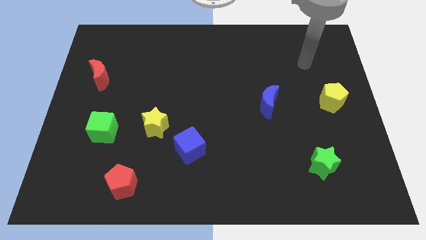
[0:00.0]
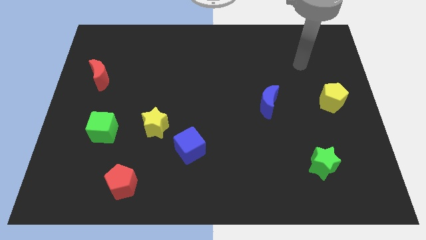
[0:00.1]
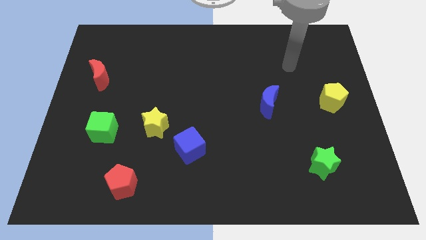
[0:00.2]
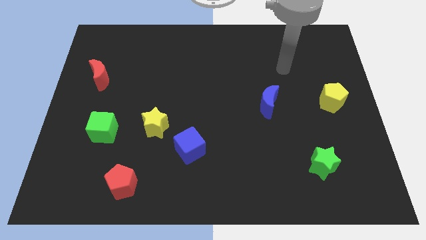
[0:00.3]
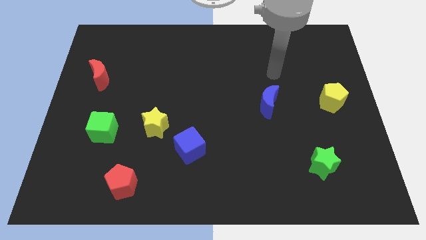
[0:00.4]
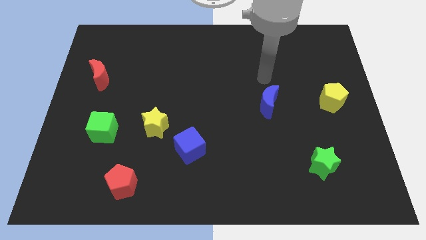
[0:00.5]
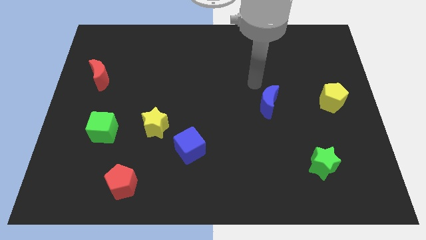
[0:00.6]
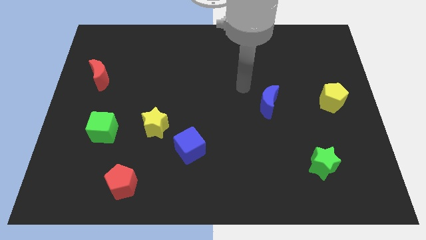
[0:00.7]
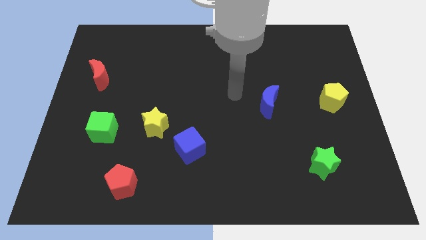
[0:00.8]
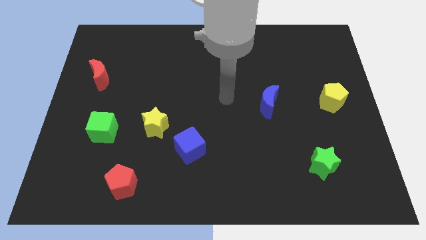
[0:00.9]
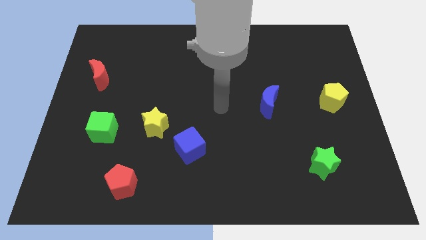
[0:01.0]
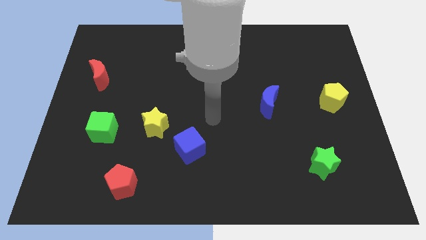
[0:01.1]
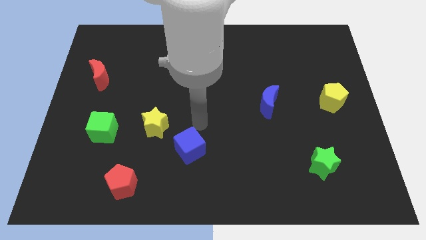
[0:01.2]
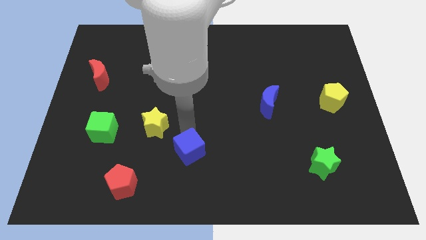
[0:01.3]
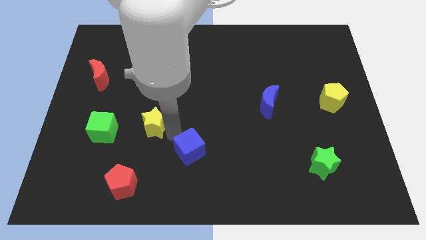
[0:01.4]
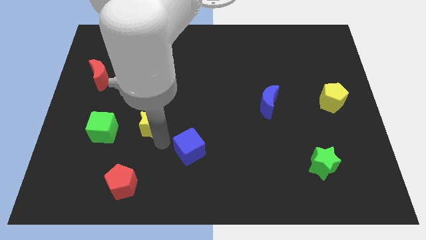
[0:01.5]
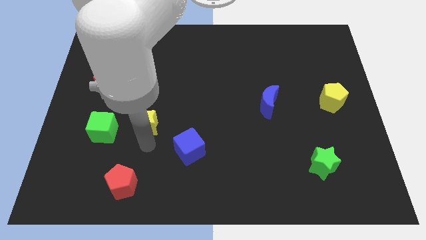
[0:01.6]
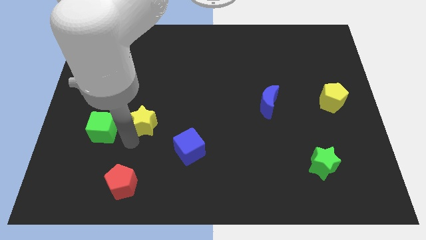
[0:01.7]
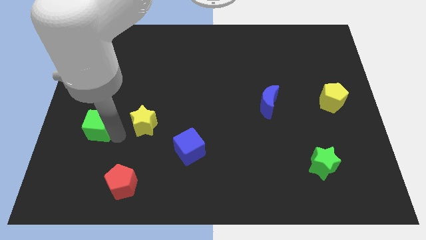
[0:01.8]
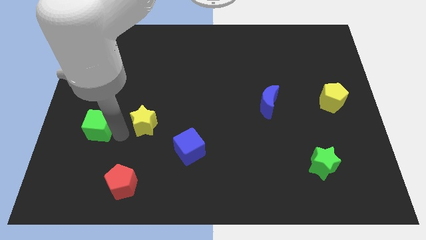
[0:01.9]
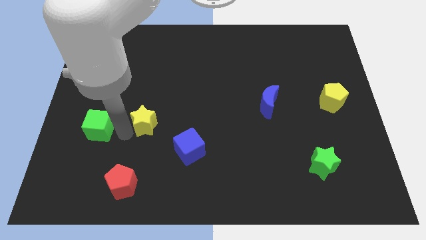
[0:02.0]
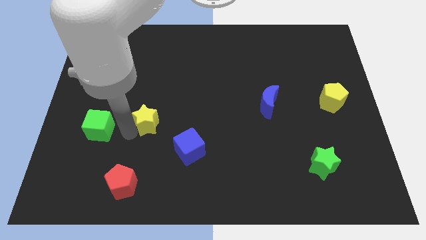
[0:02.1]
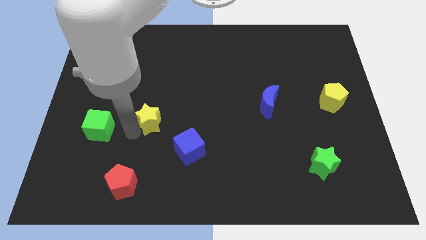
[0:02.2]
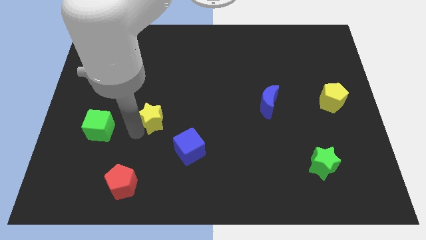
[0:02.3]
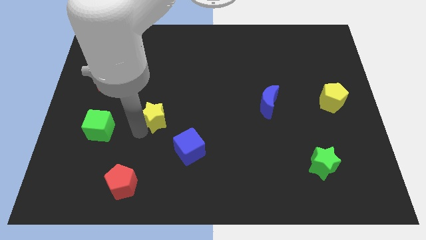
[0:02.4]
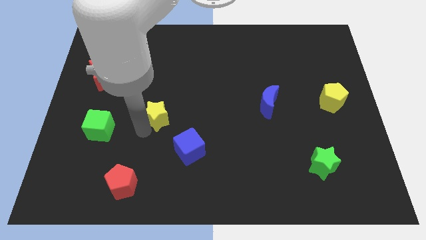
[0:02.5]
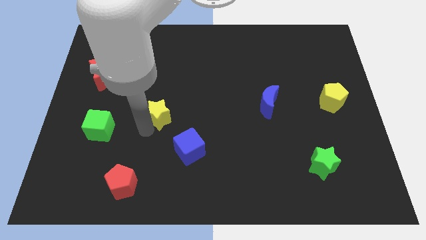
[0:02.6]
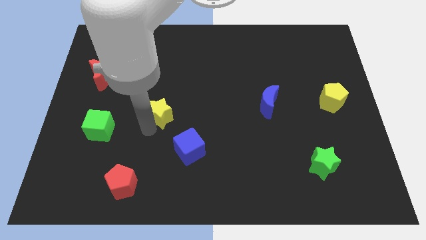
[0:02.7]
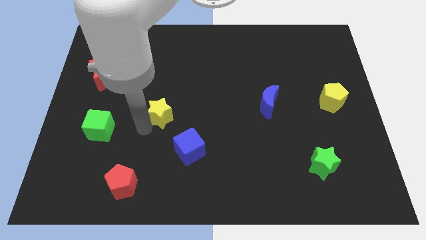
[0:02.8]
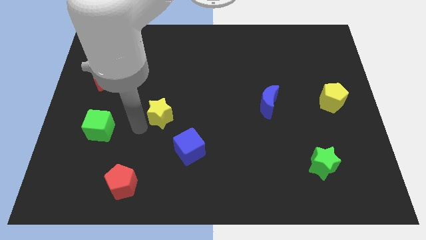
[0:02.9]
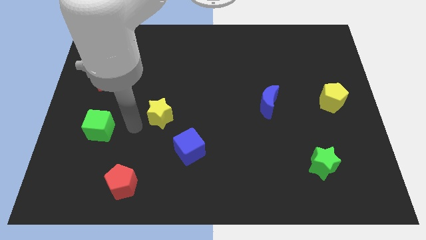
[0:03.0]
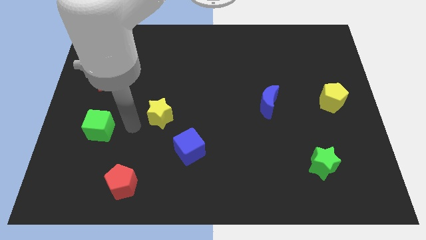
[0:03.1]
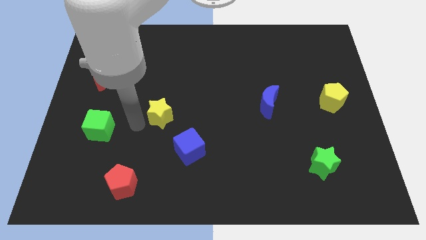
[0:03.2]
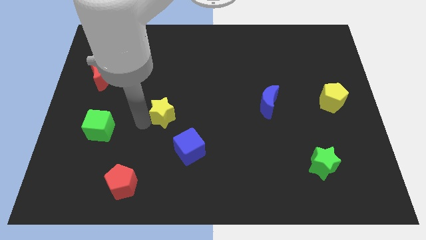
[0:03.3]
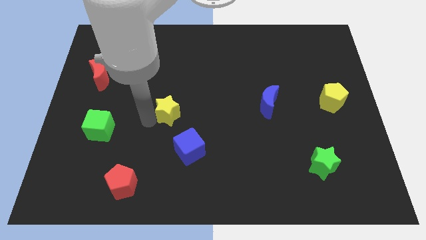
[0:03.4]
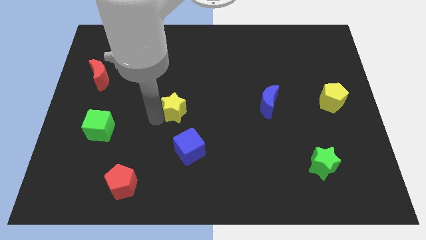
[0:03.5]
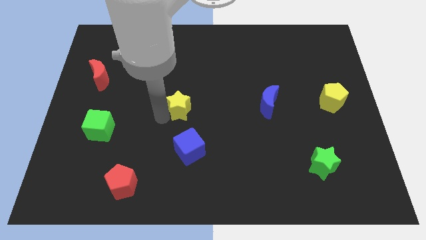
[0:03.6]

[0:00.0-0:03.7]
slightly push the yellow star diagonally upwards and right

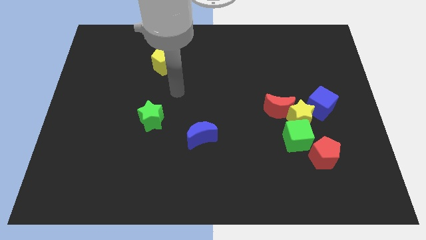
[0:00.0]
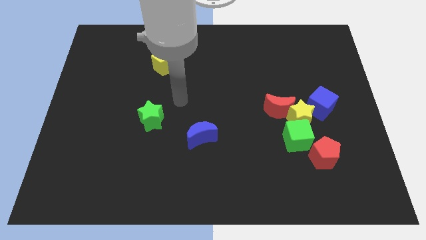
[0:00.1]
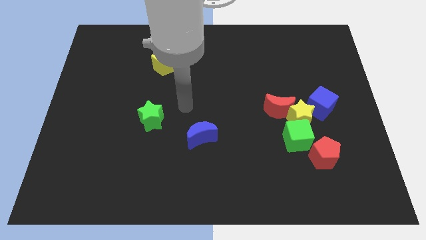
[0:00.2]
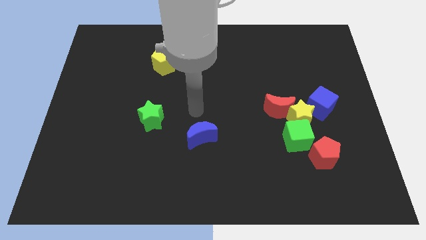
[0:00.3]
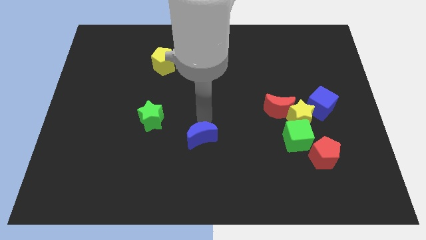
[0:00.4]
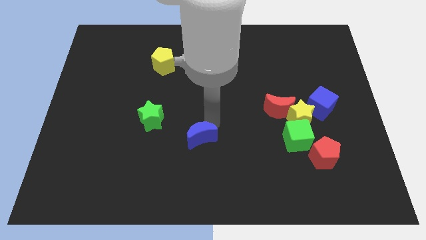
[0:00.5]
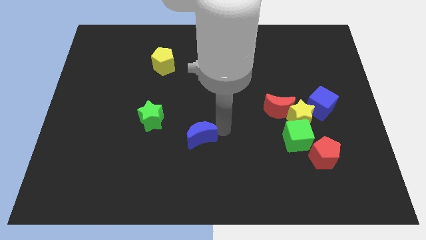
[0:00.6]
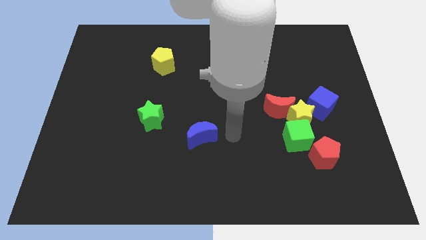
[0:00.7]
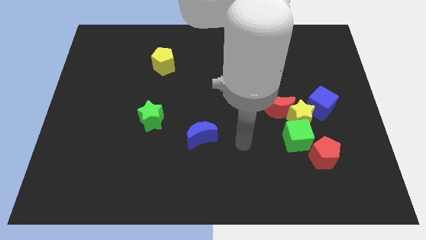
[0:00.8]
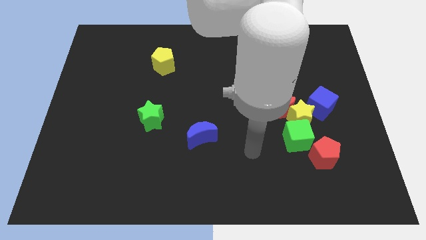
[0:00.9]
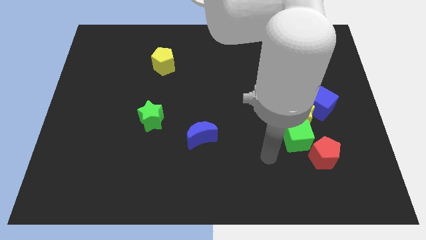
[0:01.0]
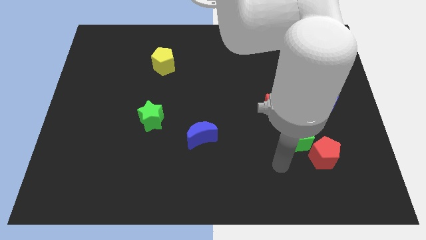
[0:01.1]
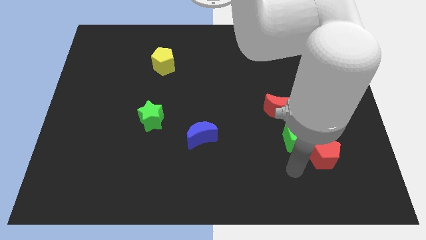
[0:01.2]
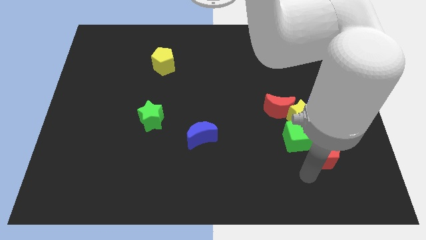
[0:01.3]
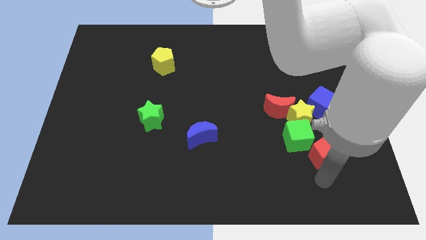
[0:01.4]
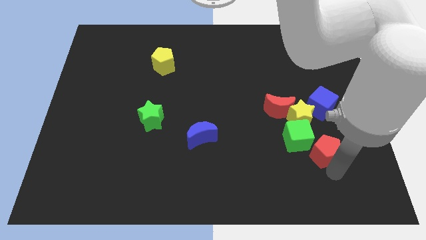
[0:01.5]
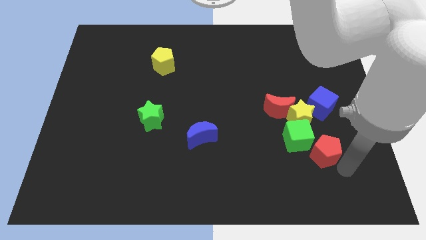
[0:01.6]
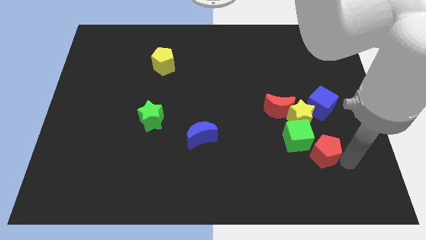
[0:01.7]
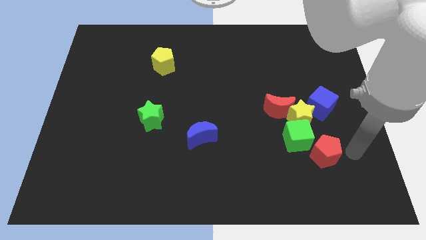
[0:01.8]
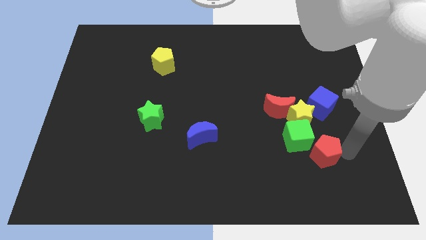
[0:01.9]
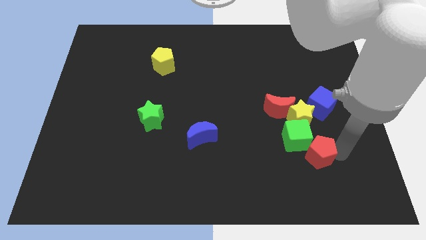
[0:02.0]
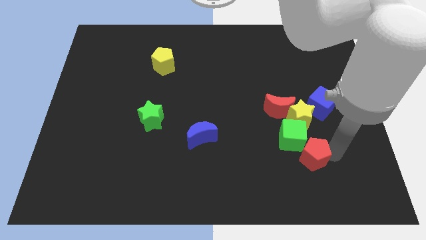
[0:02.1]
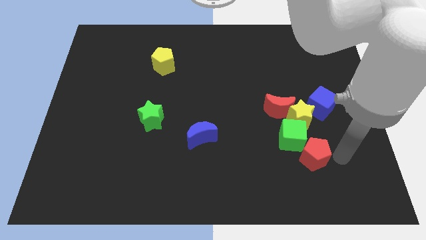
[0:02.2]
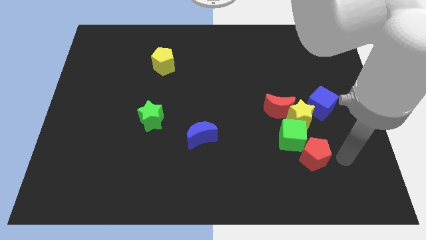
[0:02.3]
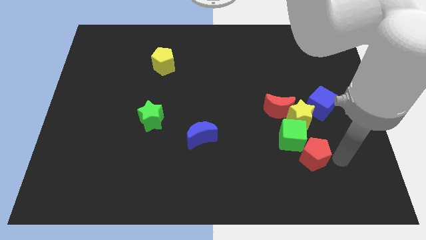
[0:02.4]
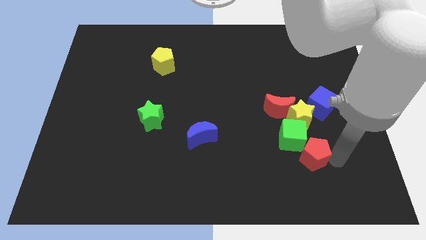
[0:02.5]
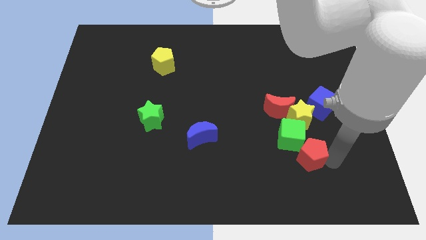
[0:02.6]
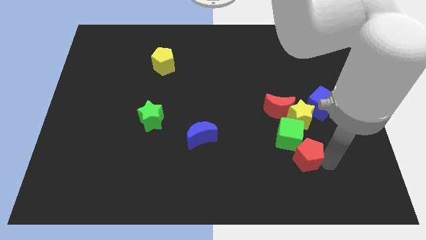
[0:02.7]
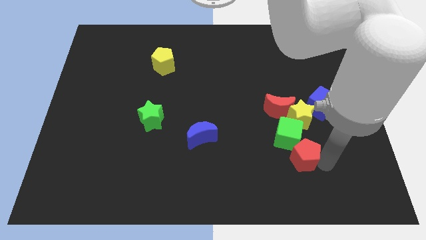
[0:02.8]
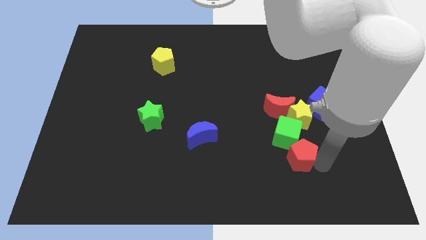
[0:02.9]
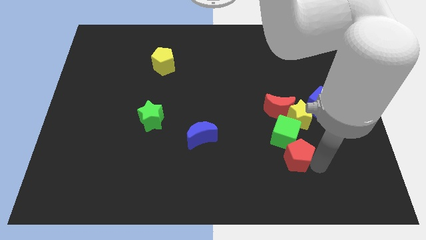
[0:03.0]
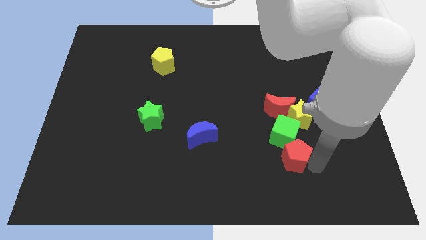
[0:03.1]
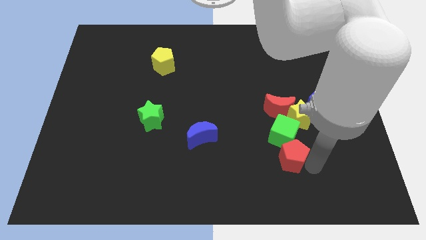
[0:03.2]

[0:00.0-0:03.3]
push the red pentagon to the left a little bit

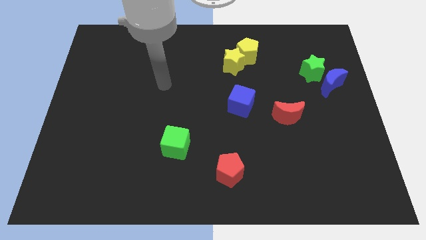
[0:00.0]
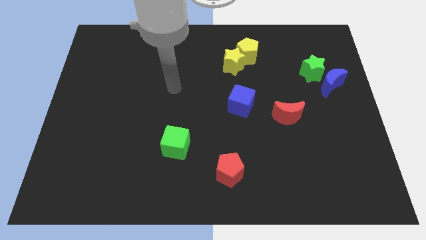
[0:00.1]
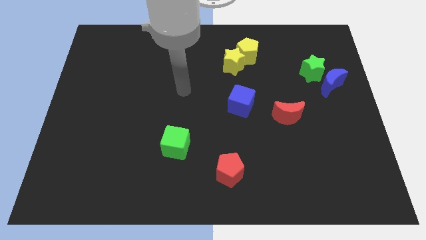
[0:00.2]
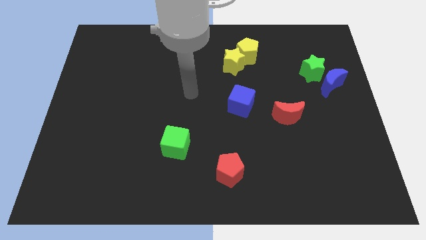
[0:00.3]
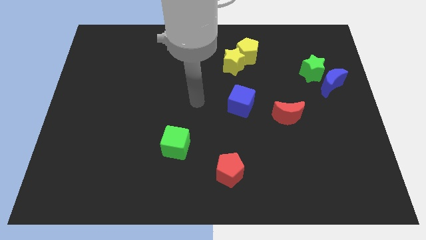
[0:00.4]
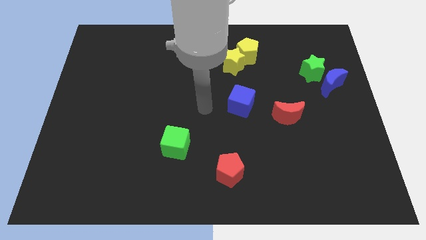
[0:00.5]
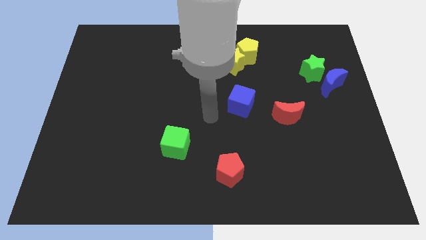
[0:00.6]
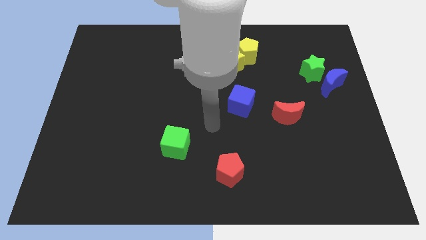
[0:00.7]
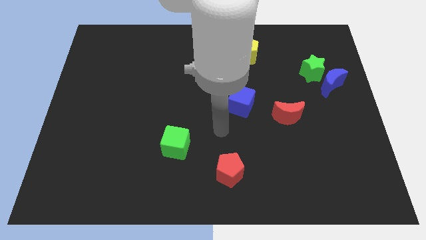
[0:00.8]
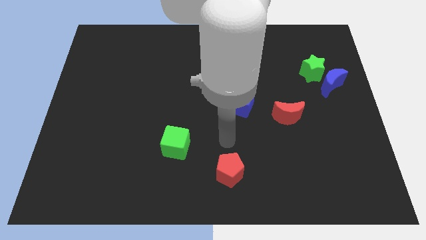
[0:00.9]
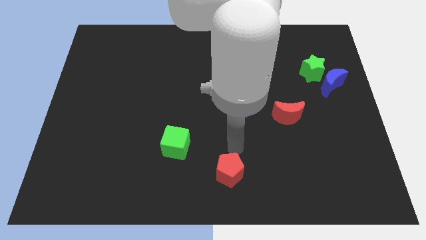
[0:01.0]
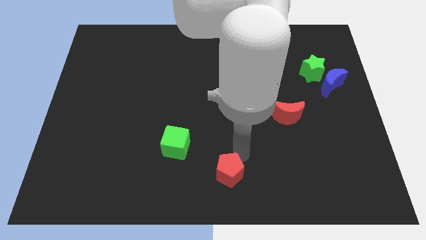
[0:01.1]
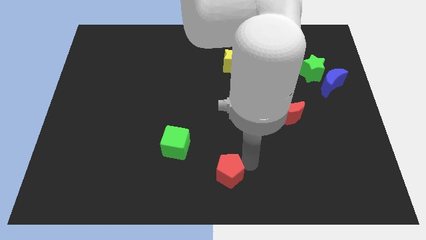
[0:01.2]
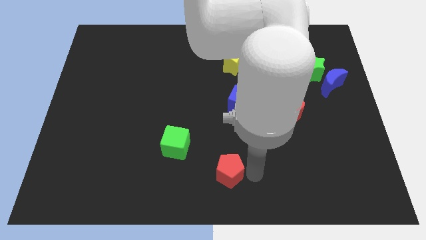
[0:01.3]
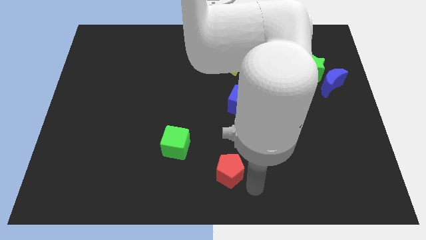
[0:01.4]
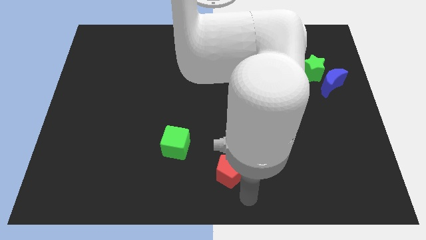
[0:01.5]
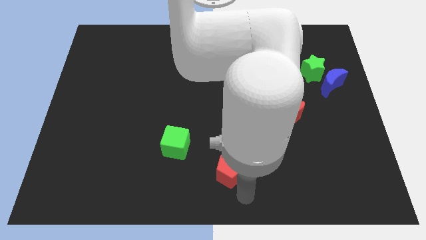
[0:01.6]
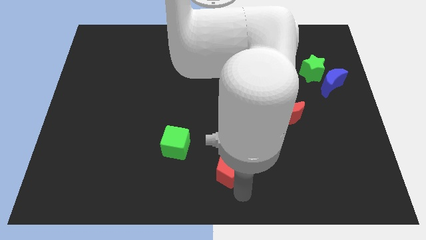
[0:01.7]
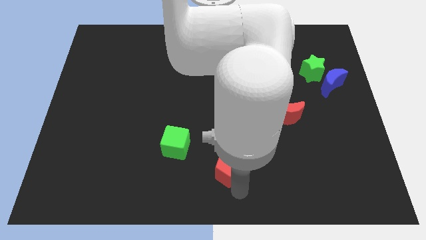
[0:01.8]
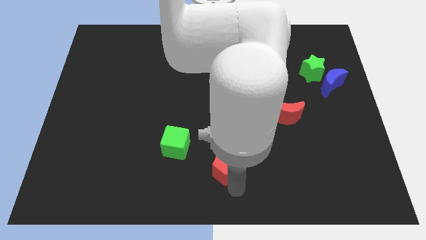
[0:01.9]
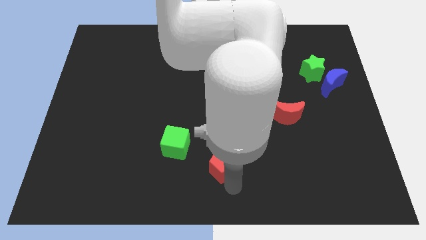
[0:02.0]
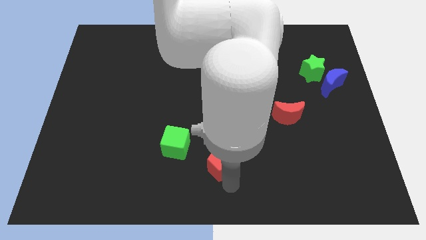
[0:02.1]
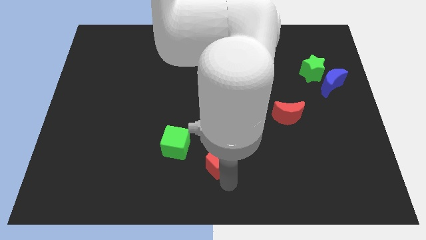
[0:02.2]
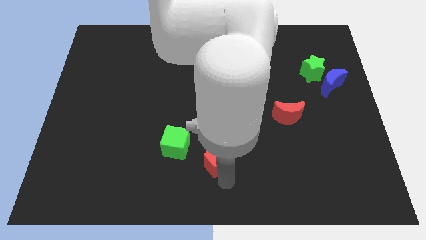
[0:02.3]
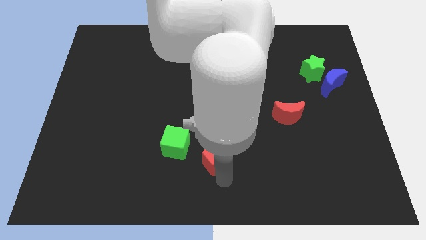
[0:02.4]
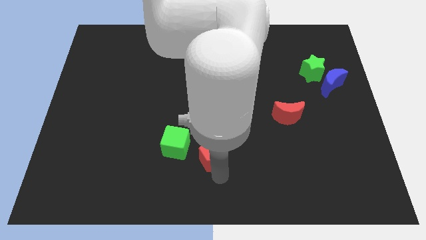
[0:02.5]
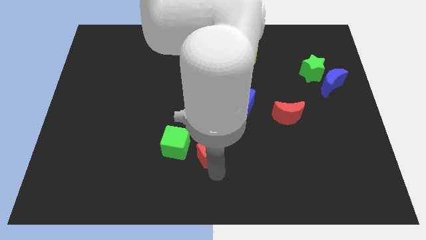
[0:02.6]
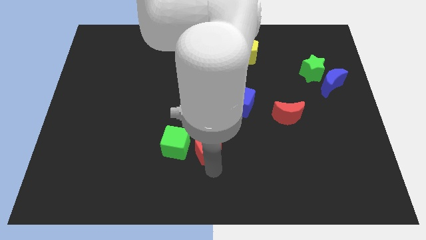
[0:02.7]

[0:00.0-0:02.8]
slightly move the red pentagon up and then to the left
